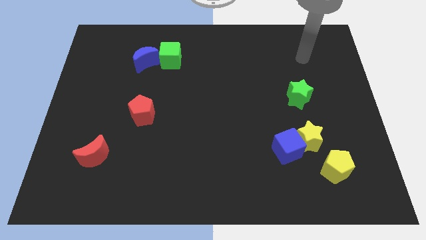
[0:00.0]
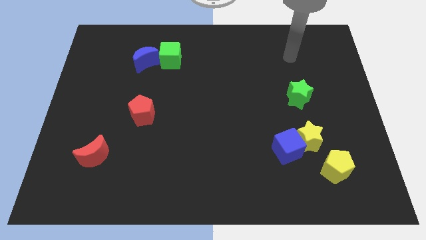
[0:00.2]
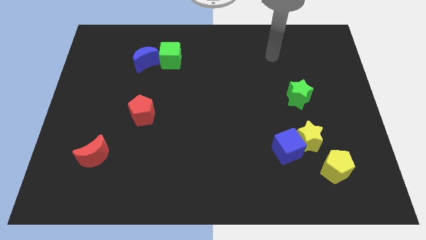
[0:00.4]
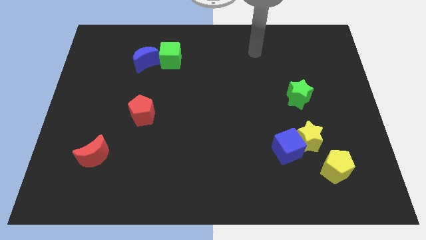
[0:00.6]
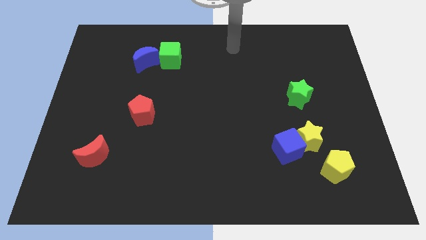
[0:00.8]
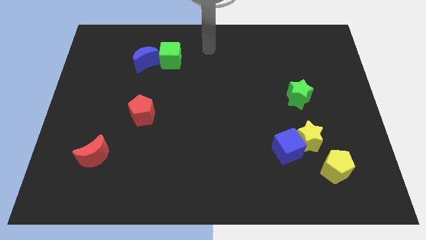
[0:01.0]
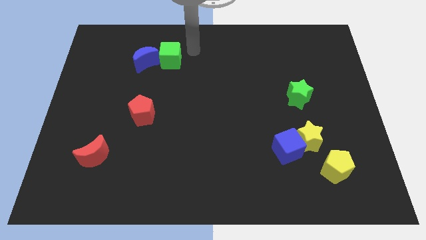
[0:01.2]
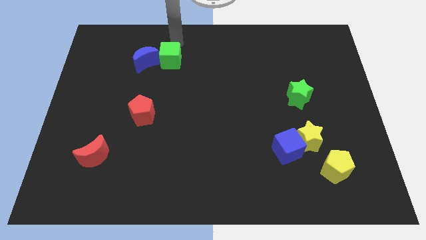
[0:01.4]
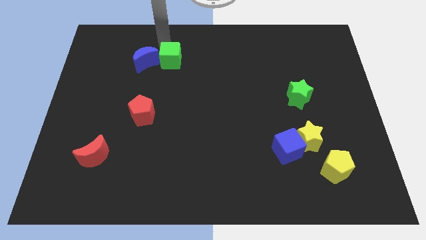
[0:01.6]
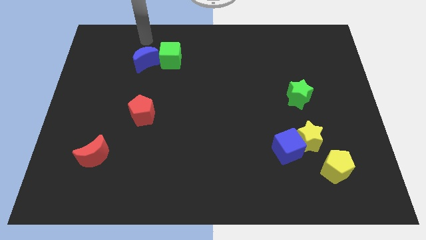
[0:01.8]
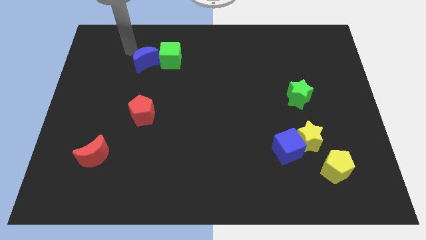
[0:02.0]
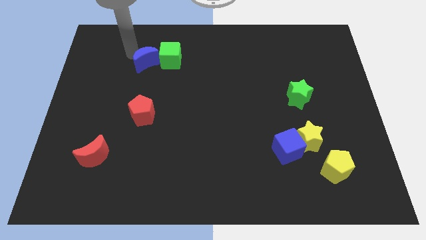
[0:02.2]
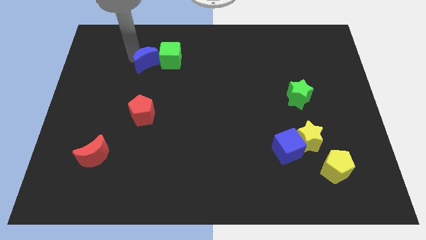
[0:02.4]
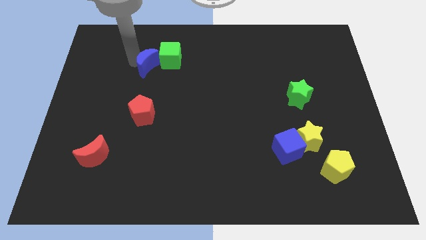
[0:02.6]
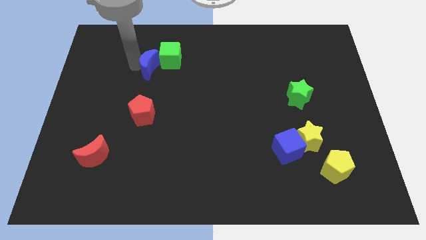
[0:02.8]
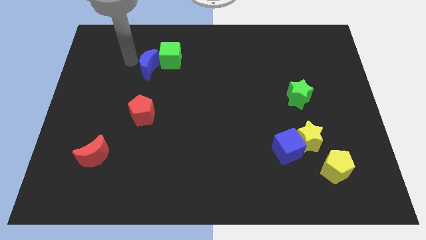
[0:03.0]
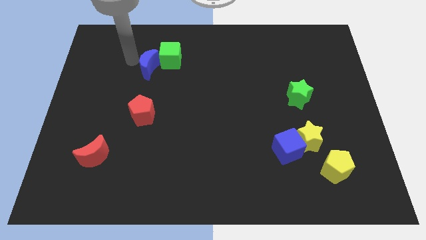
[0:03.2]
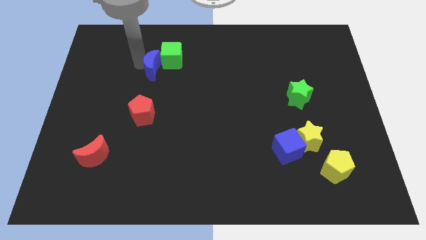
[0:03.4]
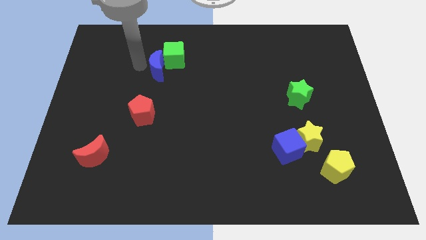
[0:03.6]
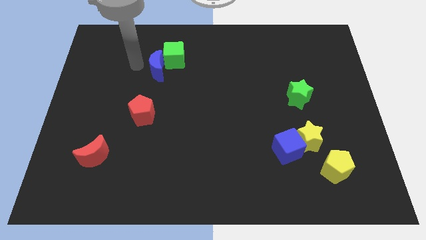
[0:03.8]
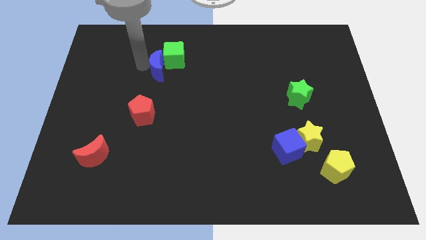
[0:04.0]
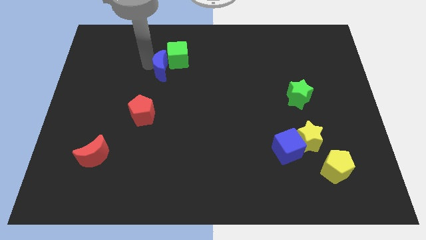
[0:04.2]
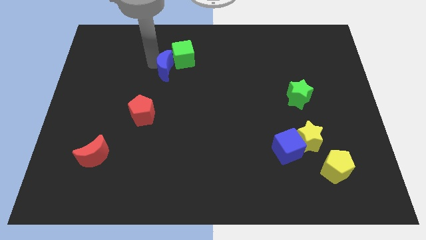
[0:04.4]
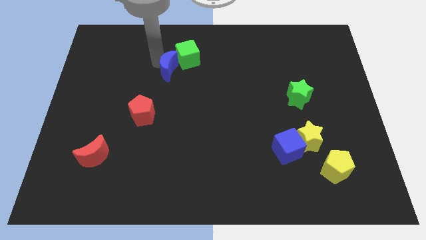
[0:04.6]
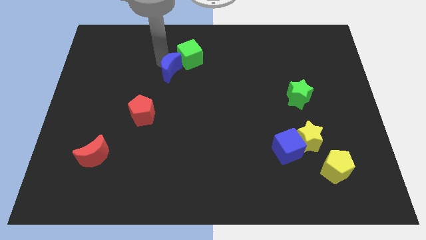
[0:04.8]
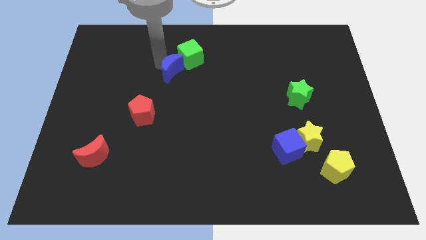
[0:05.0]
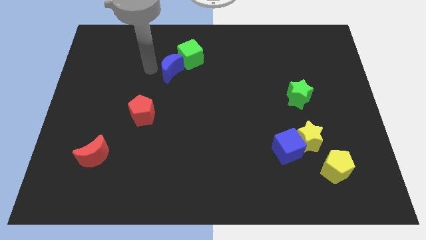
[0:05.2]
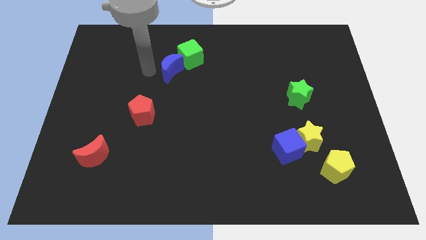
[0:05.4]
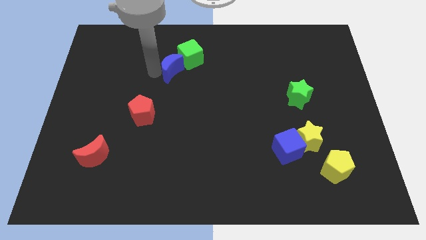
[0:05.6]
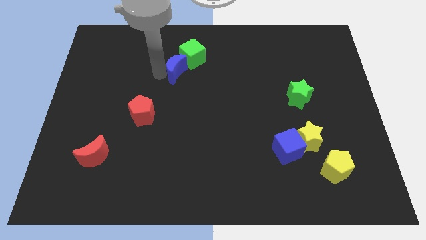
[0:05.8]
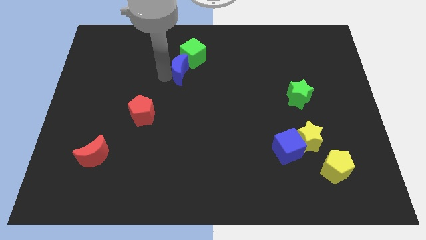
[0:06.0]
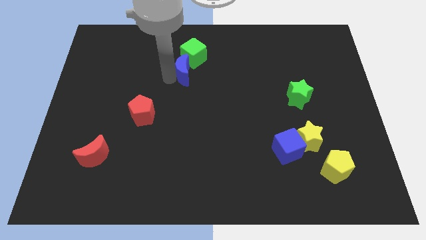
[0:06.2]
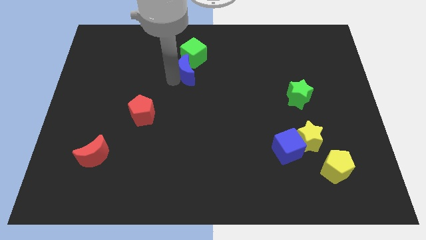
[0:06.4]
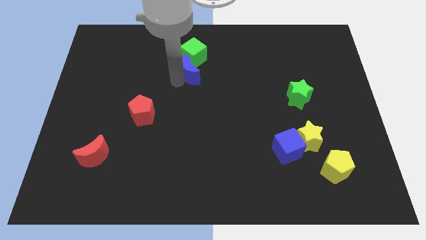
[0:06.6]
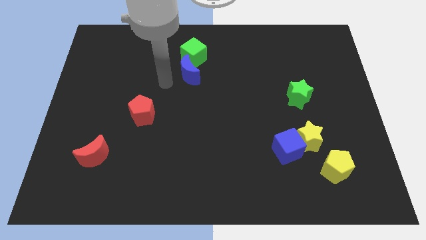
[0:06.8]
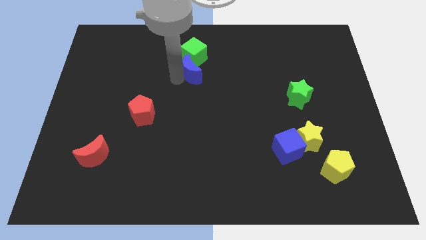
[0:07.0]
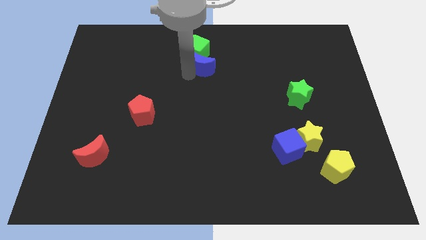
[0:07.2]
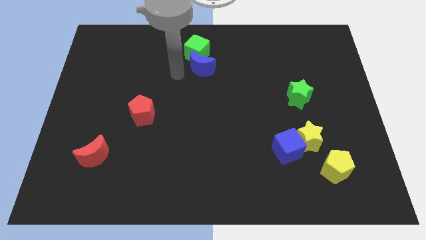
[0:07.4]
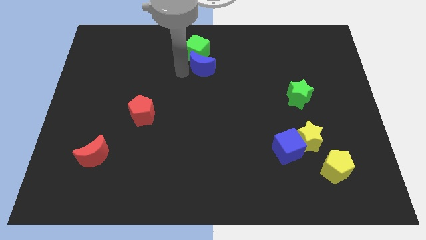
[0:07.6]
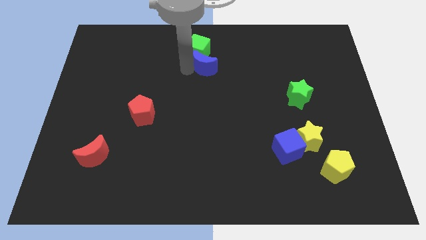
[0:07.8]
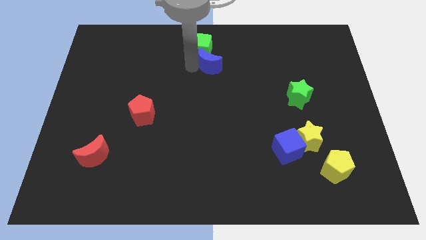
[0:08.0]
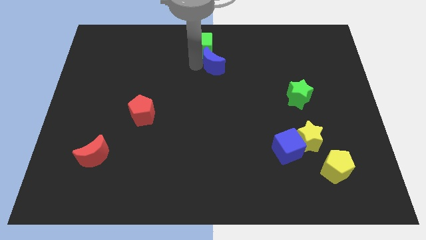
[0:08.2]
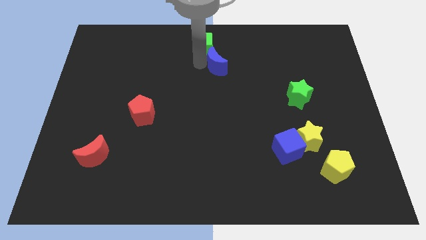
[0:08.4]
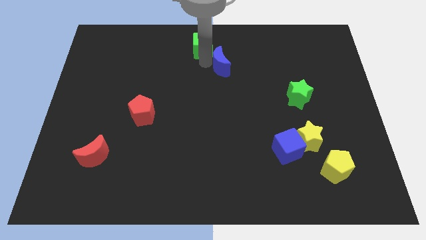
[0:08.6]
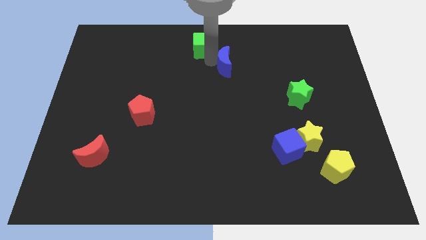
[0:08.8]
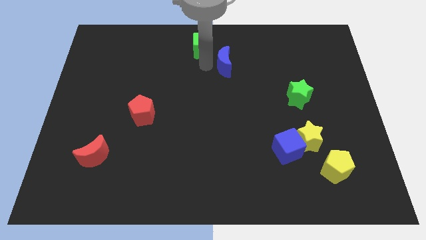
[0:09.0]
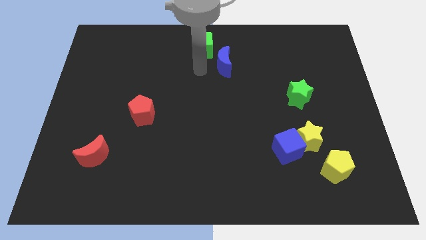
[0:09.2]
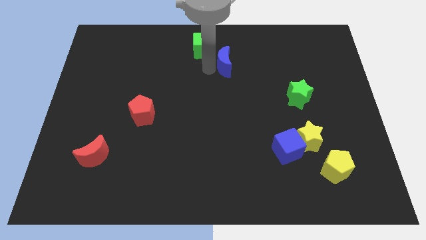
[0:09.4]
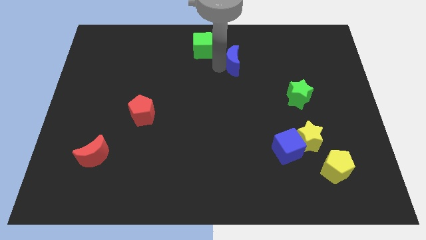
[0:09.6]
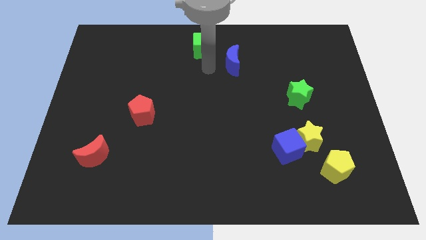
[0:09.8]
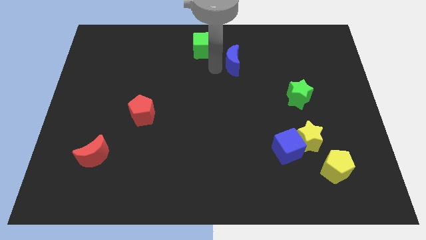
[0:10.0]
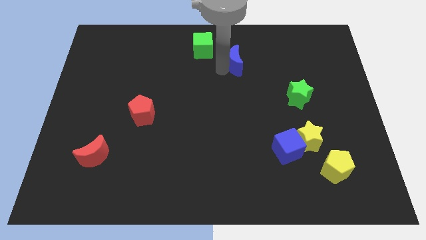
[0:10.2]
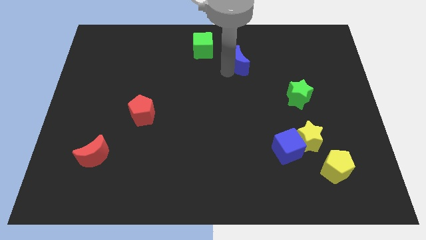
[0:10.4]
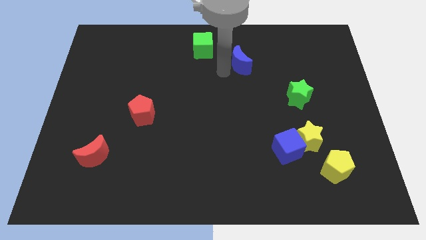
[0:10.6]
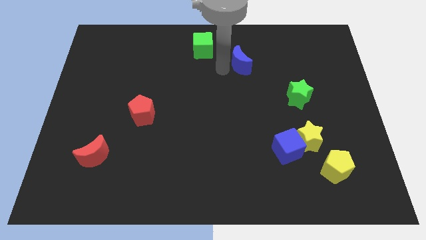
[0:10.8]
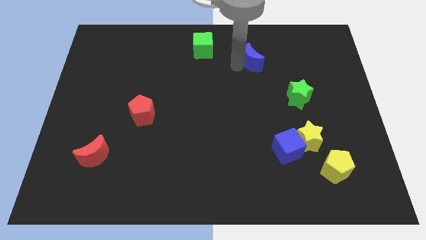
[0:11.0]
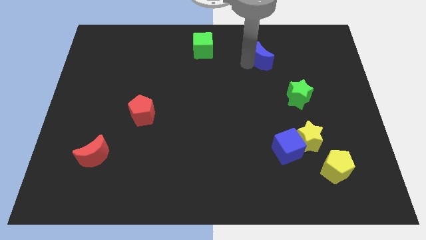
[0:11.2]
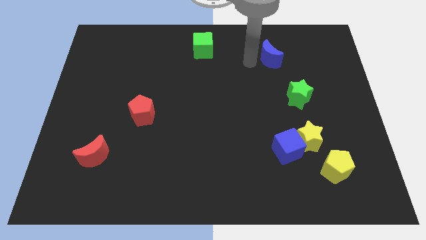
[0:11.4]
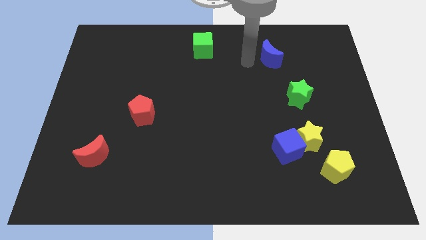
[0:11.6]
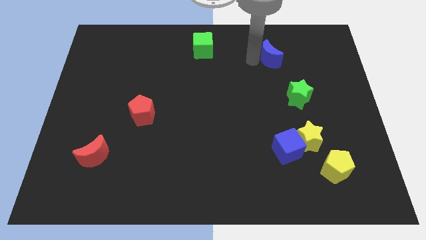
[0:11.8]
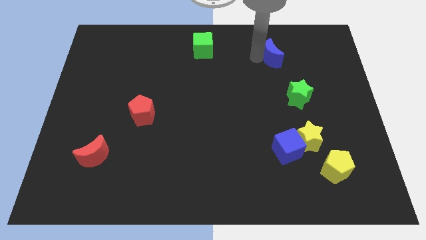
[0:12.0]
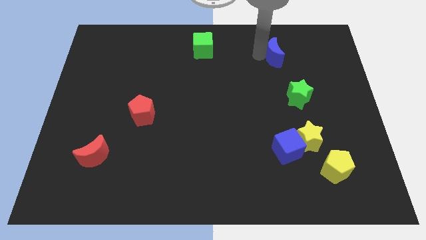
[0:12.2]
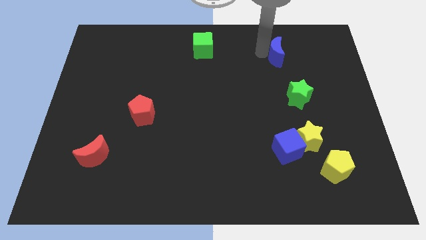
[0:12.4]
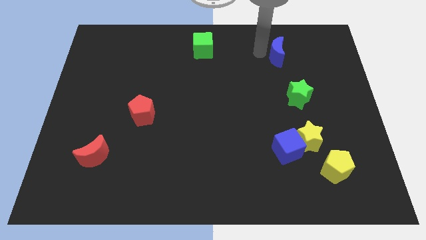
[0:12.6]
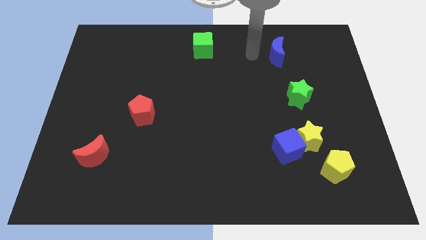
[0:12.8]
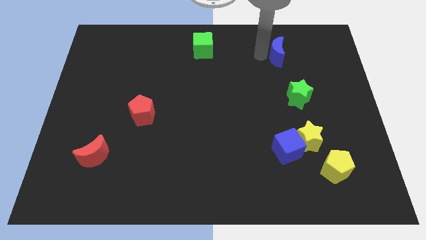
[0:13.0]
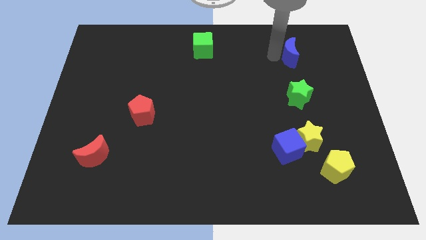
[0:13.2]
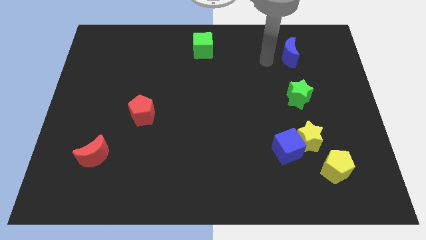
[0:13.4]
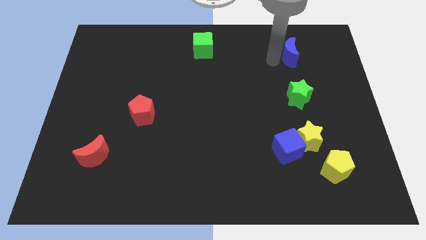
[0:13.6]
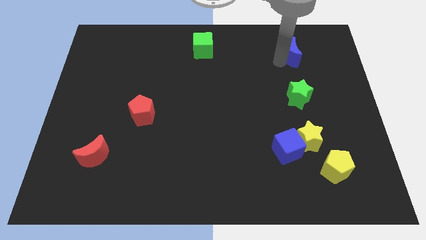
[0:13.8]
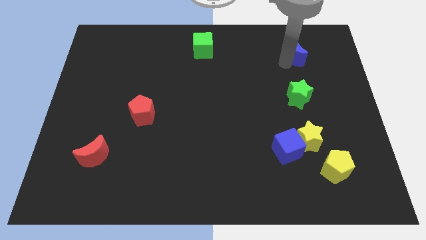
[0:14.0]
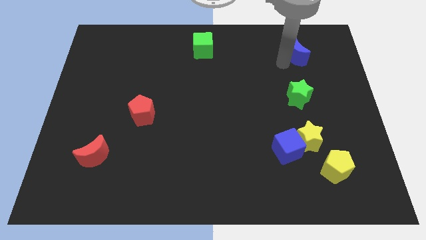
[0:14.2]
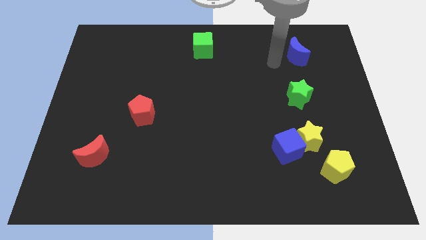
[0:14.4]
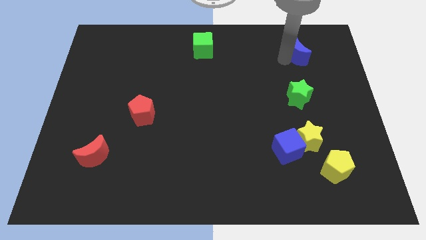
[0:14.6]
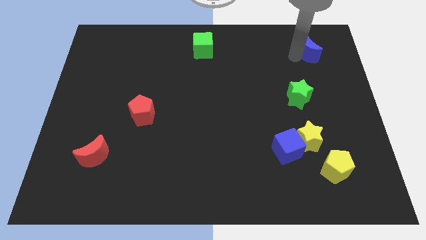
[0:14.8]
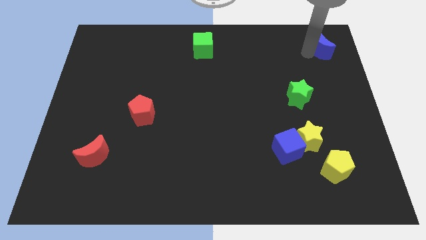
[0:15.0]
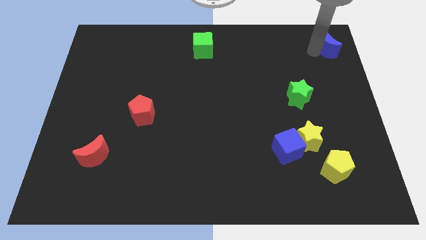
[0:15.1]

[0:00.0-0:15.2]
slide the blue moon to the top right
